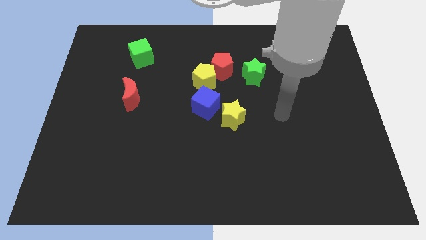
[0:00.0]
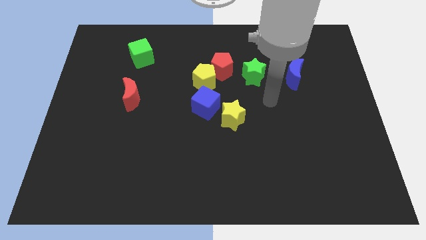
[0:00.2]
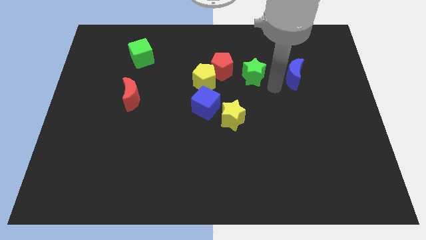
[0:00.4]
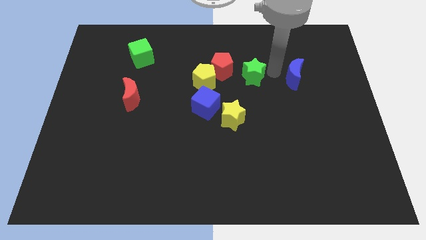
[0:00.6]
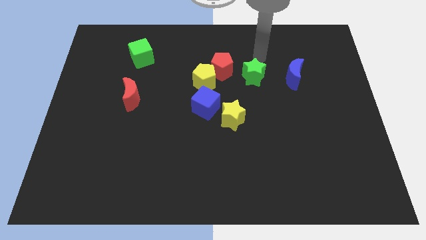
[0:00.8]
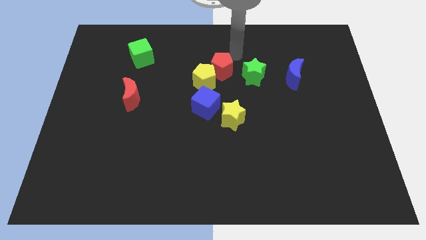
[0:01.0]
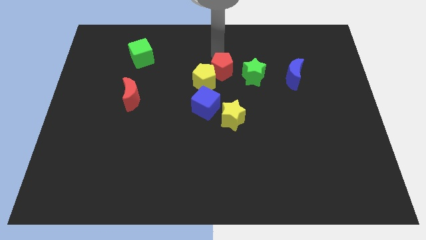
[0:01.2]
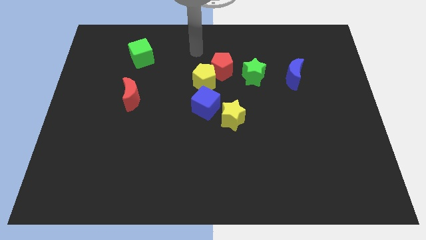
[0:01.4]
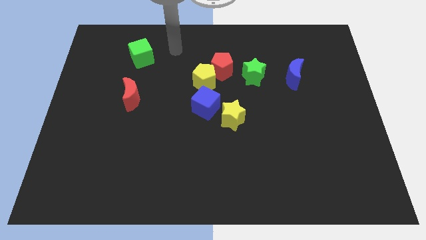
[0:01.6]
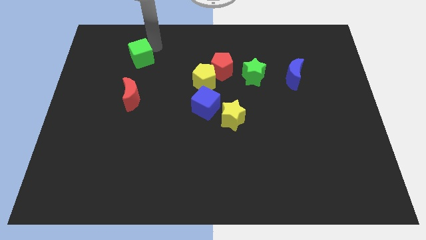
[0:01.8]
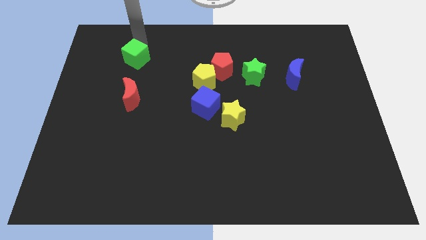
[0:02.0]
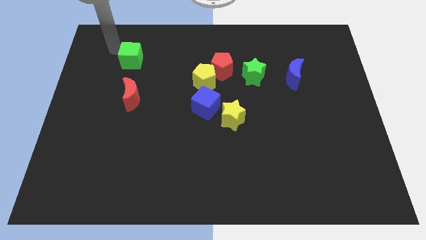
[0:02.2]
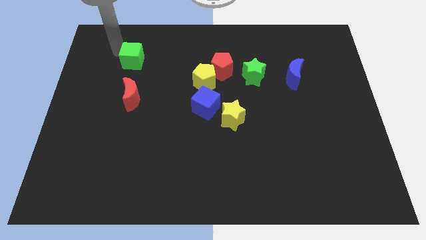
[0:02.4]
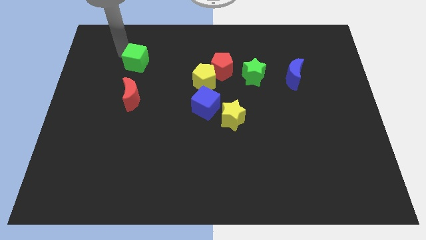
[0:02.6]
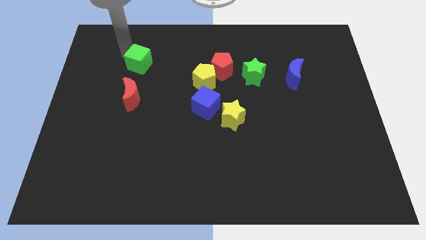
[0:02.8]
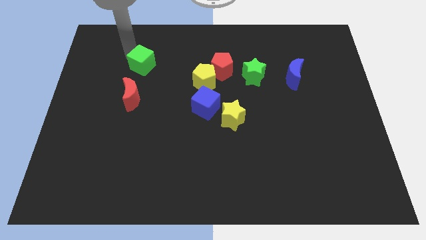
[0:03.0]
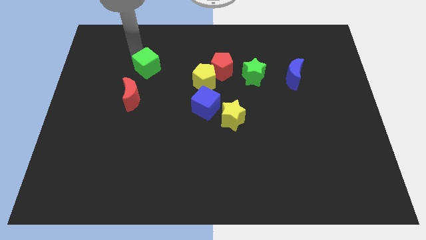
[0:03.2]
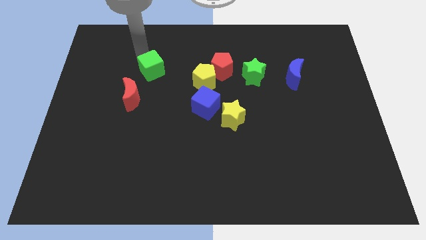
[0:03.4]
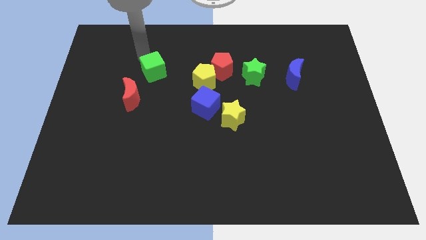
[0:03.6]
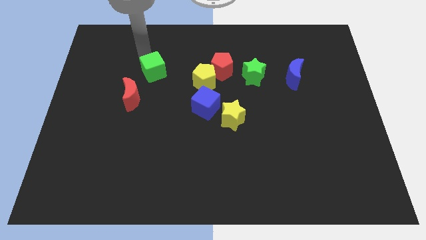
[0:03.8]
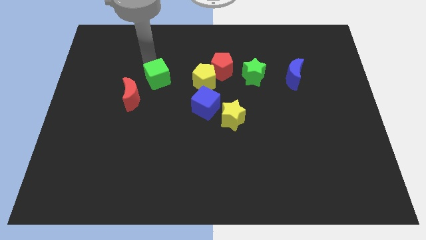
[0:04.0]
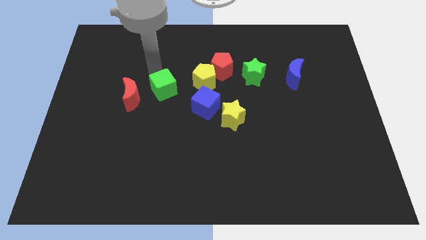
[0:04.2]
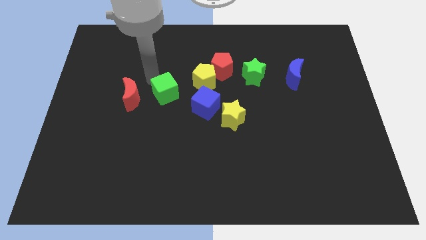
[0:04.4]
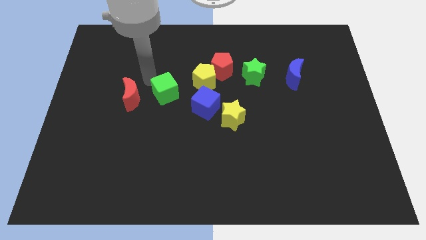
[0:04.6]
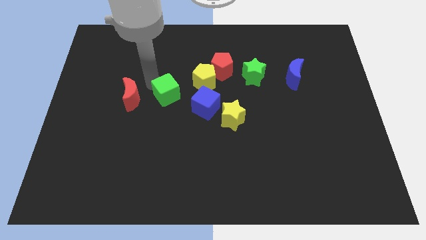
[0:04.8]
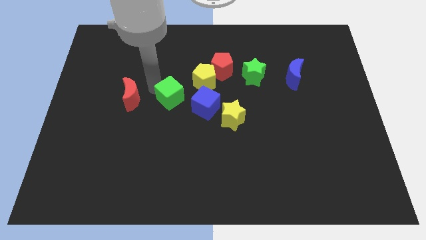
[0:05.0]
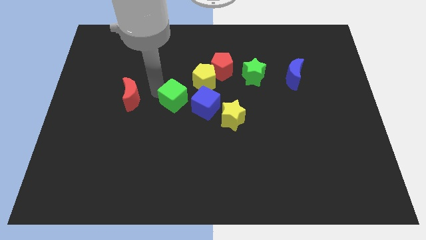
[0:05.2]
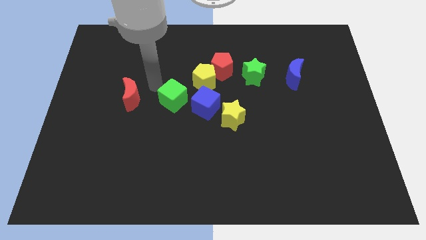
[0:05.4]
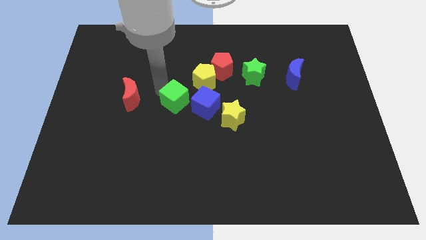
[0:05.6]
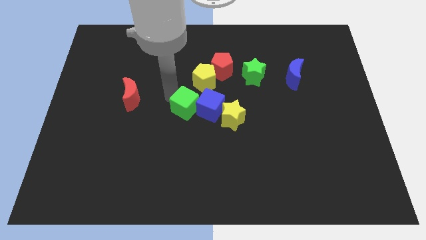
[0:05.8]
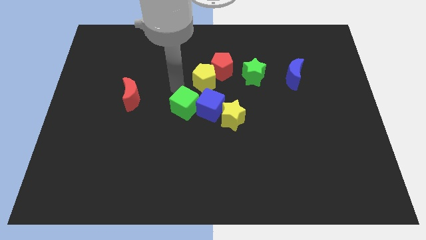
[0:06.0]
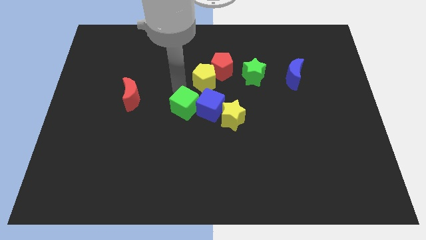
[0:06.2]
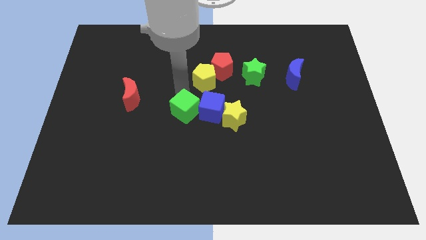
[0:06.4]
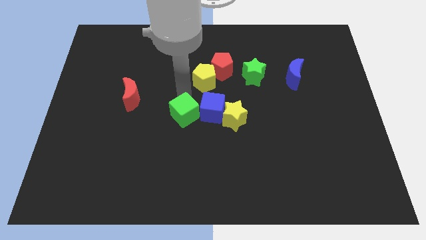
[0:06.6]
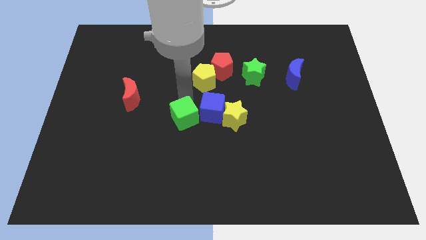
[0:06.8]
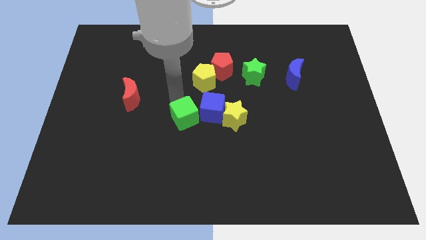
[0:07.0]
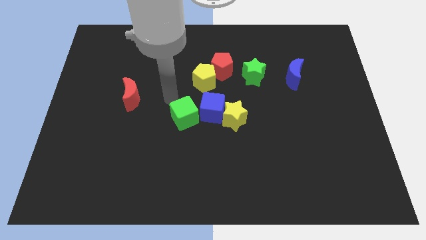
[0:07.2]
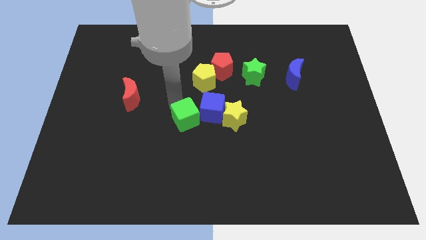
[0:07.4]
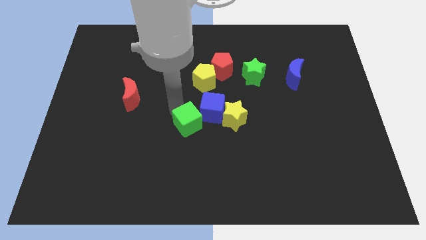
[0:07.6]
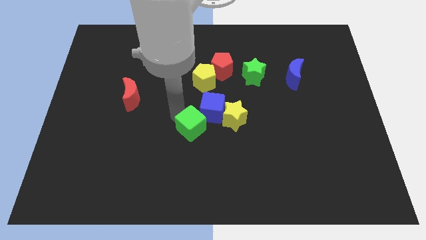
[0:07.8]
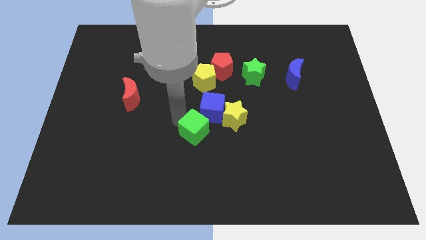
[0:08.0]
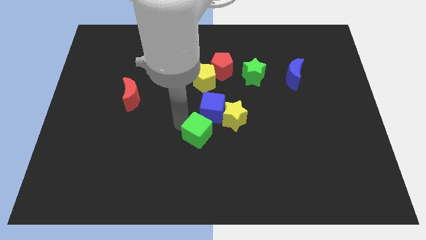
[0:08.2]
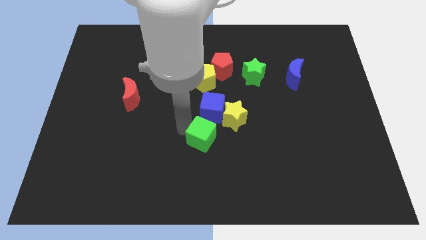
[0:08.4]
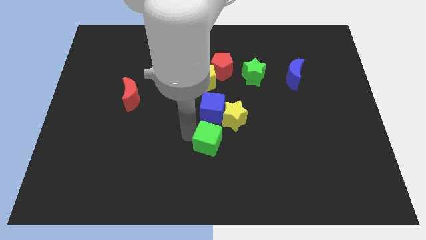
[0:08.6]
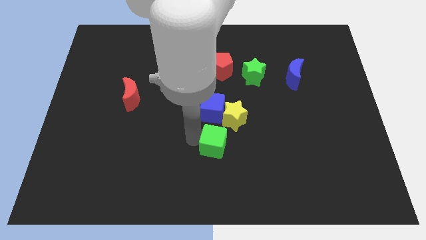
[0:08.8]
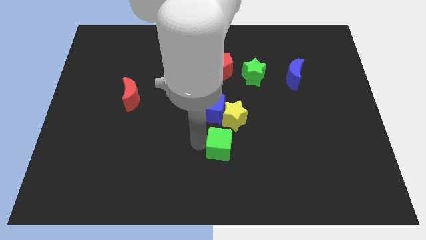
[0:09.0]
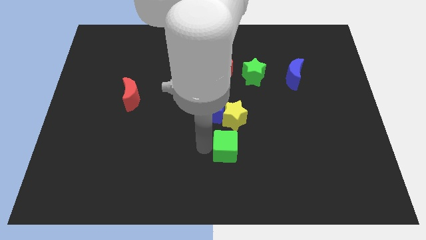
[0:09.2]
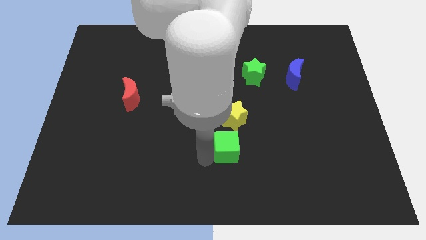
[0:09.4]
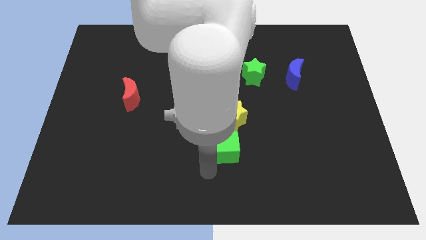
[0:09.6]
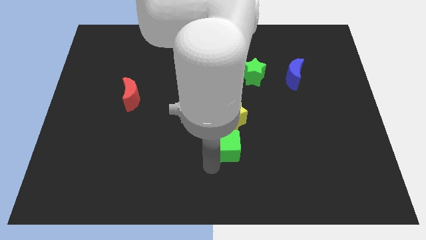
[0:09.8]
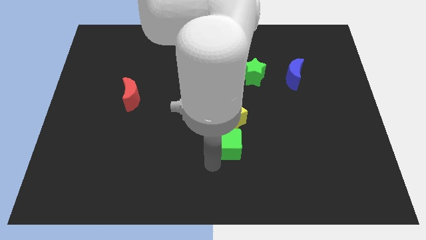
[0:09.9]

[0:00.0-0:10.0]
slide the green cube to the bottom right of the blue cube

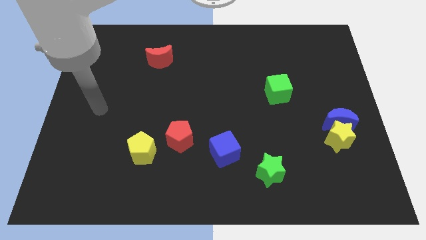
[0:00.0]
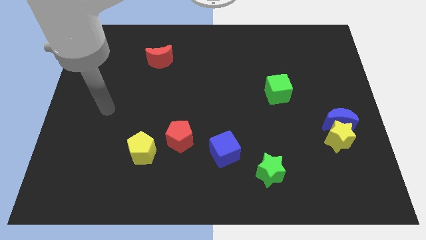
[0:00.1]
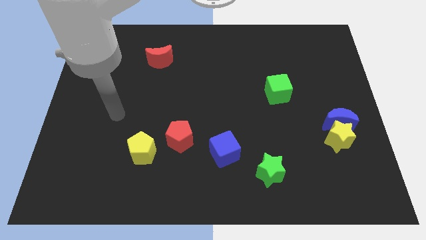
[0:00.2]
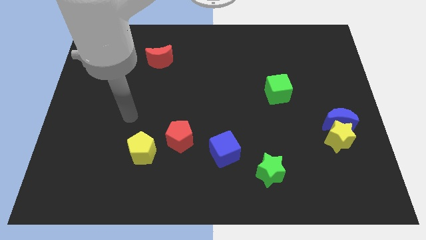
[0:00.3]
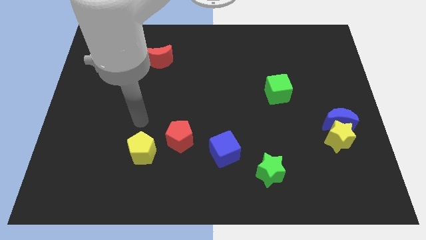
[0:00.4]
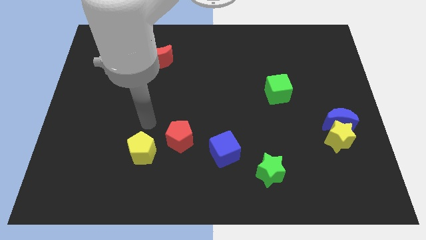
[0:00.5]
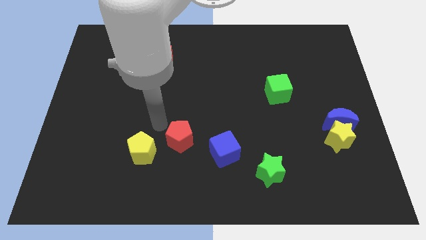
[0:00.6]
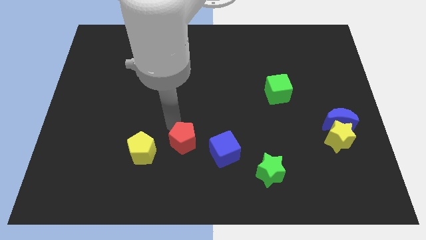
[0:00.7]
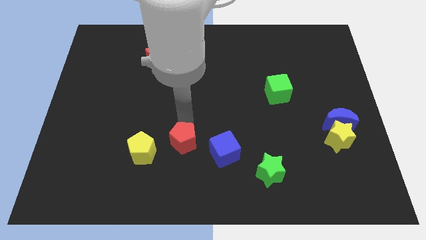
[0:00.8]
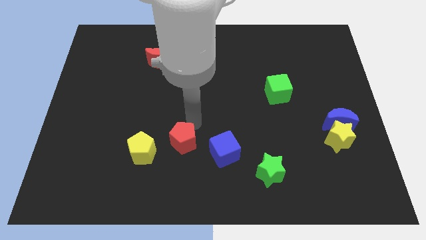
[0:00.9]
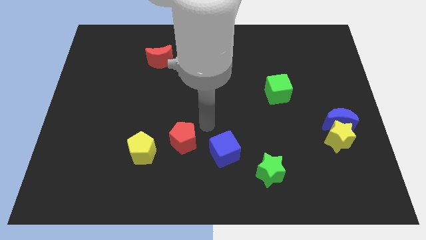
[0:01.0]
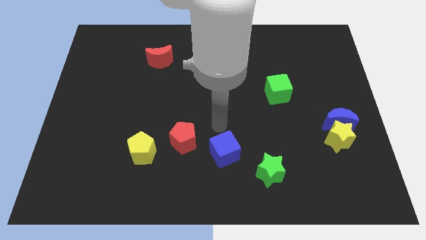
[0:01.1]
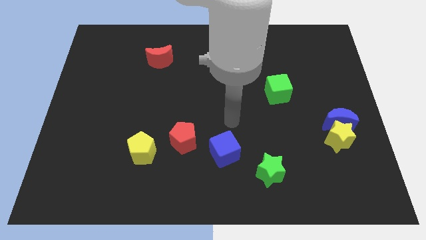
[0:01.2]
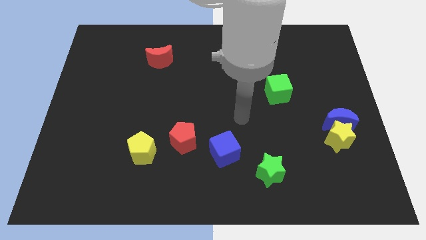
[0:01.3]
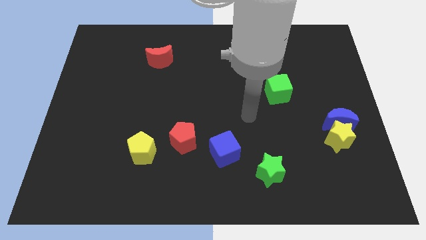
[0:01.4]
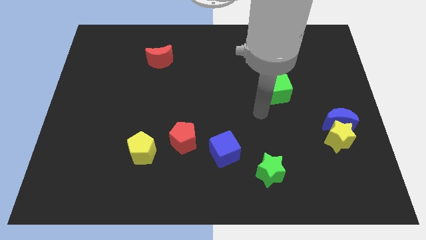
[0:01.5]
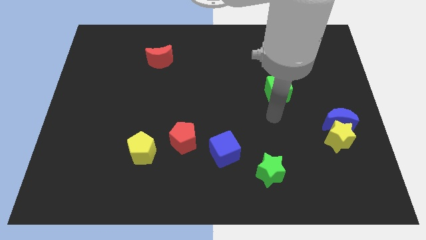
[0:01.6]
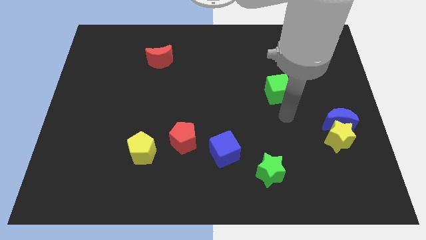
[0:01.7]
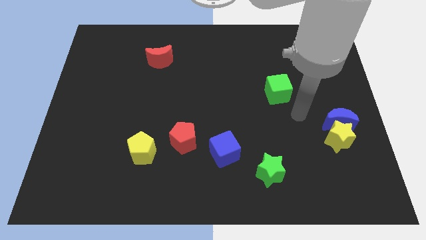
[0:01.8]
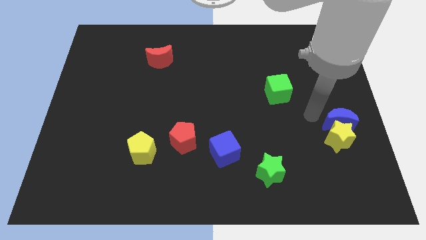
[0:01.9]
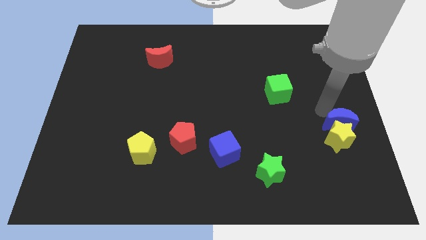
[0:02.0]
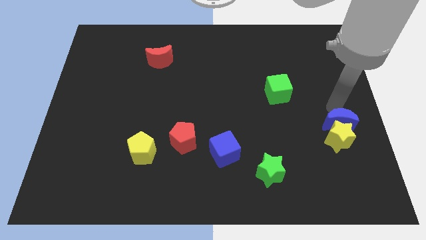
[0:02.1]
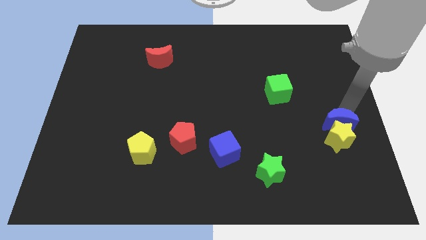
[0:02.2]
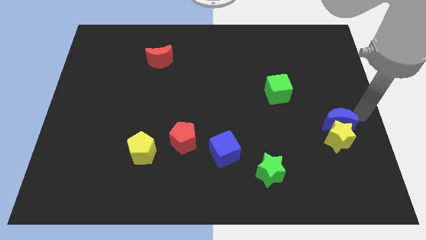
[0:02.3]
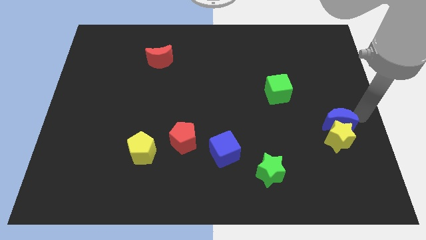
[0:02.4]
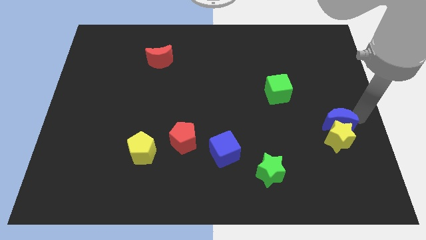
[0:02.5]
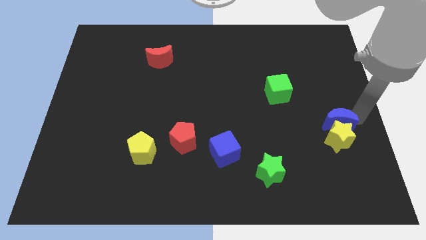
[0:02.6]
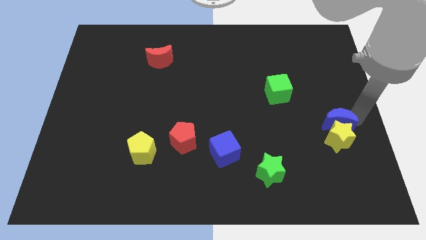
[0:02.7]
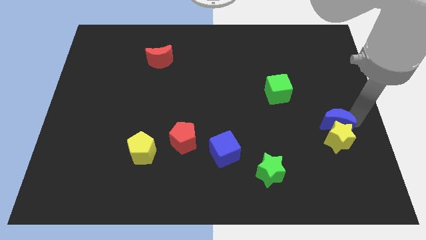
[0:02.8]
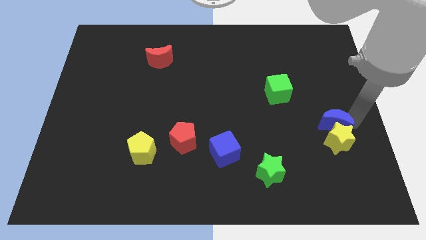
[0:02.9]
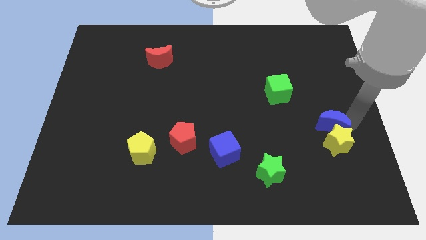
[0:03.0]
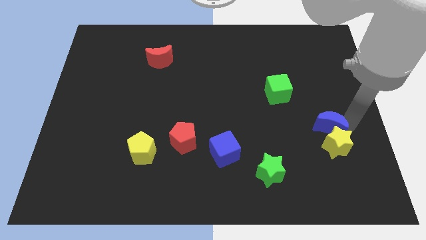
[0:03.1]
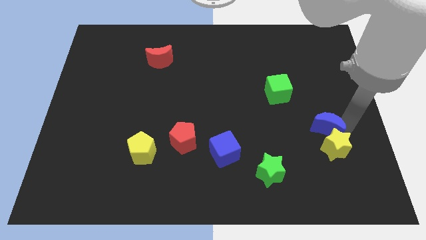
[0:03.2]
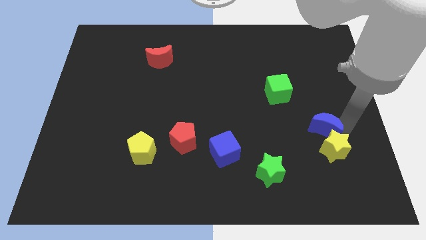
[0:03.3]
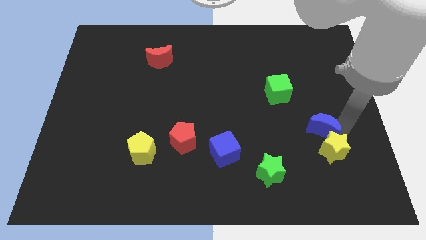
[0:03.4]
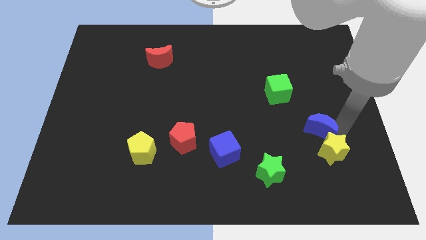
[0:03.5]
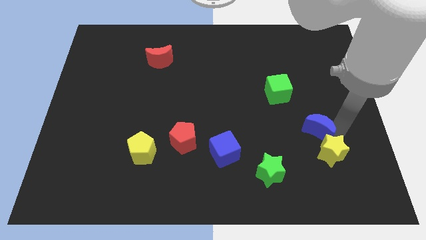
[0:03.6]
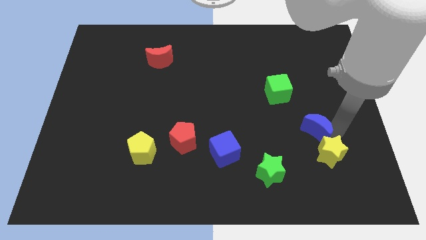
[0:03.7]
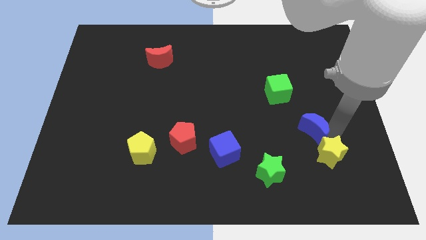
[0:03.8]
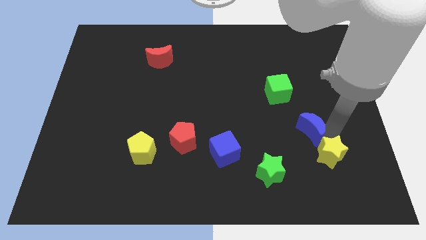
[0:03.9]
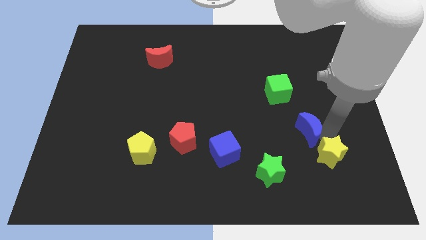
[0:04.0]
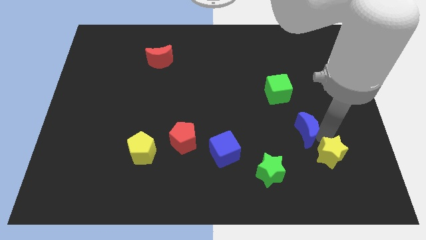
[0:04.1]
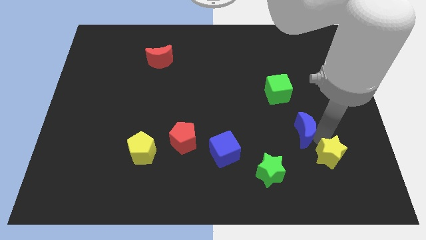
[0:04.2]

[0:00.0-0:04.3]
slide the blue moon to the bottom side of the green cube
